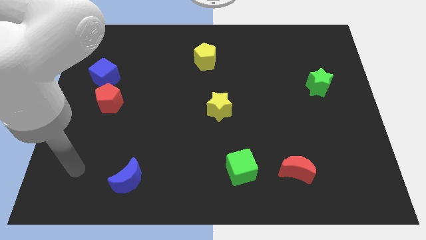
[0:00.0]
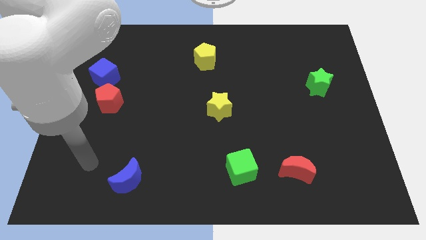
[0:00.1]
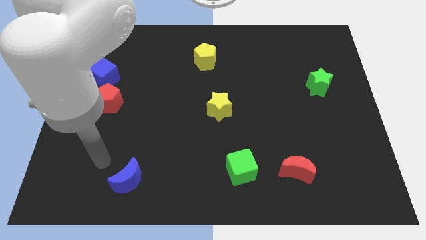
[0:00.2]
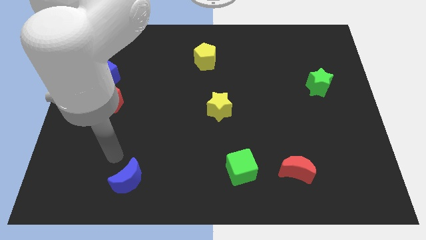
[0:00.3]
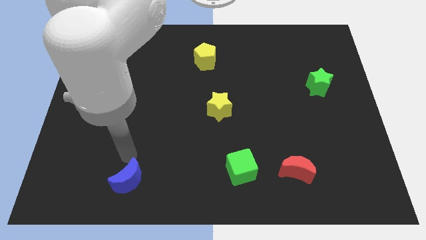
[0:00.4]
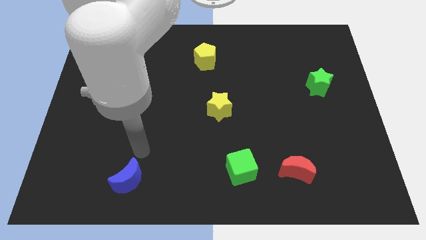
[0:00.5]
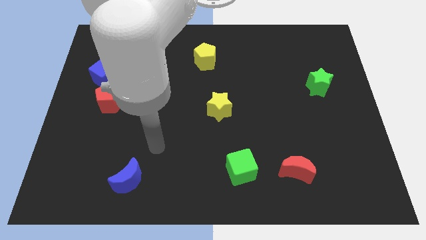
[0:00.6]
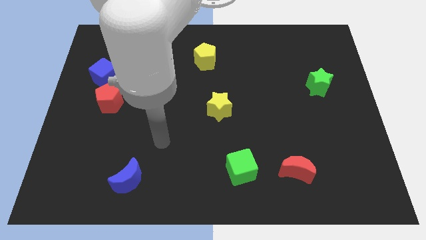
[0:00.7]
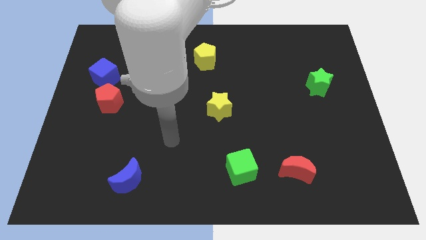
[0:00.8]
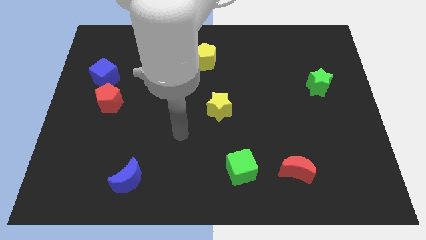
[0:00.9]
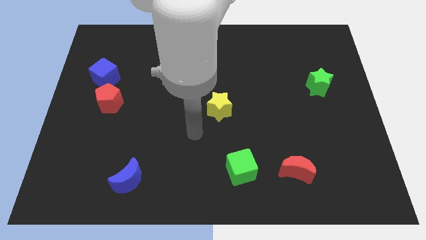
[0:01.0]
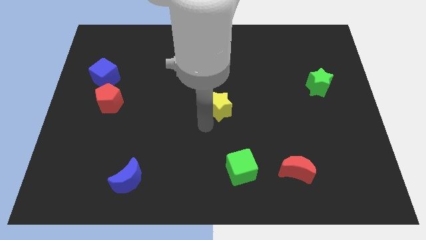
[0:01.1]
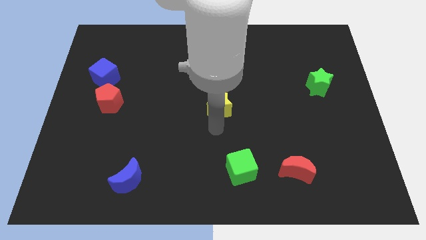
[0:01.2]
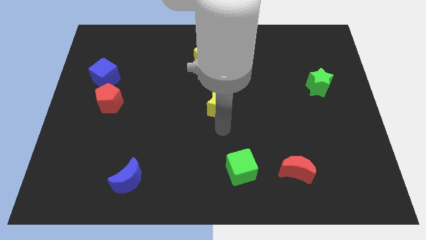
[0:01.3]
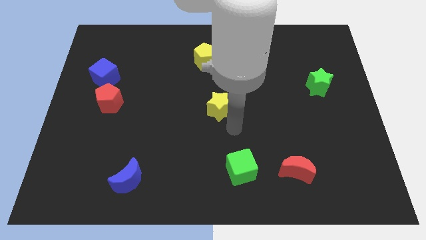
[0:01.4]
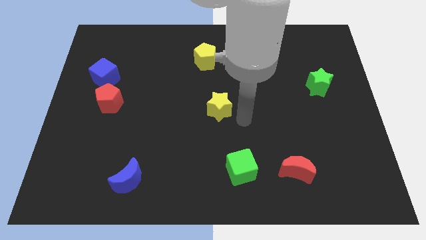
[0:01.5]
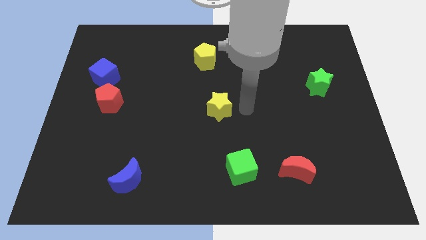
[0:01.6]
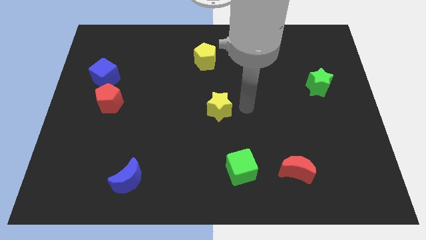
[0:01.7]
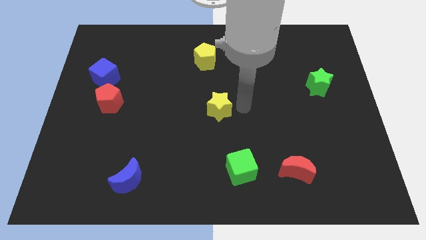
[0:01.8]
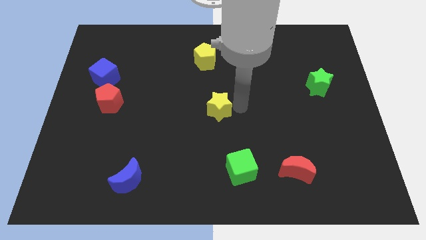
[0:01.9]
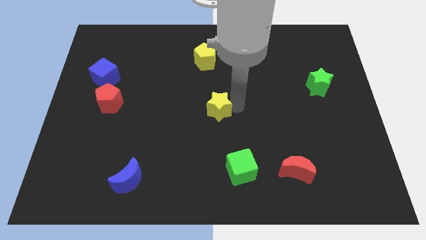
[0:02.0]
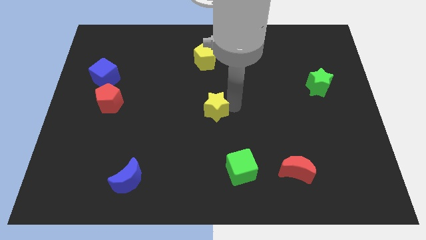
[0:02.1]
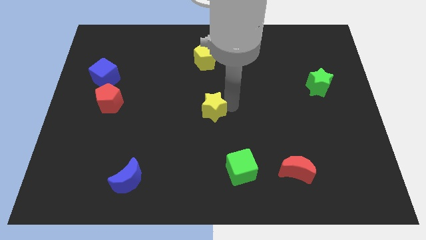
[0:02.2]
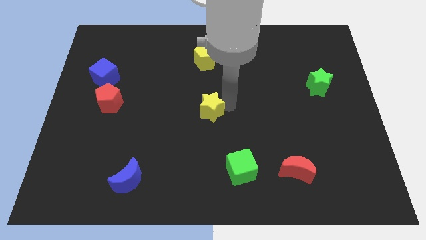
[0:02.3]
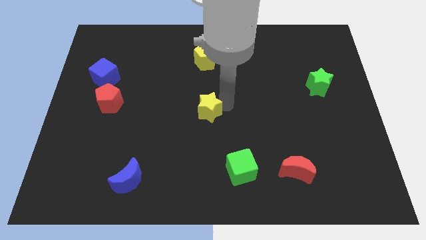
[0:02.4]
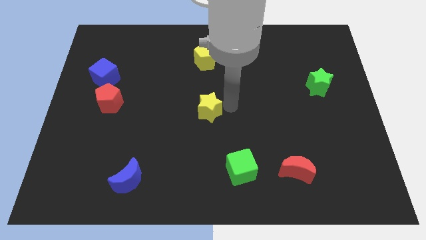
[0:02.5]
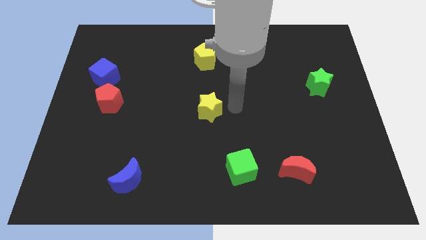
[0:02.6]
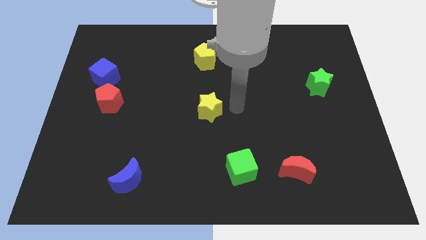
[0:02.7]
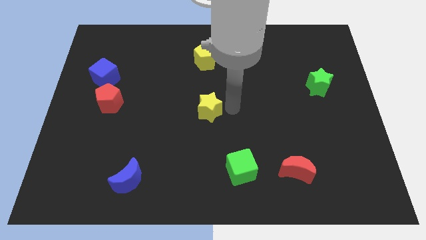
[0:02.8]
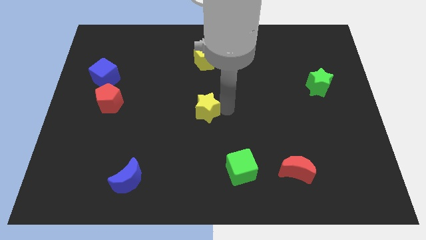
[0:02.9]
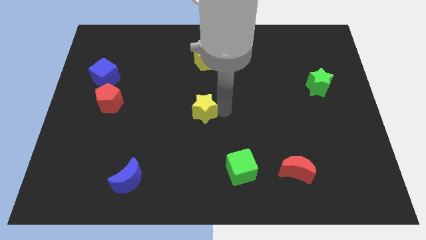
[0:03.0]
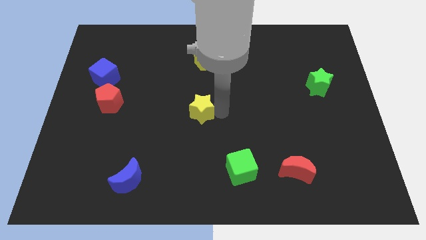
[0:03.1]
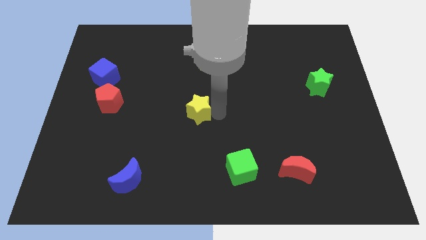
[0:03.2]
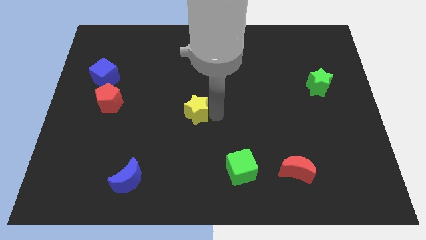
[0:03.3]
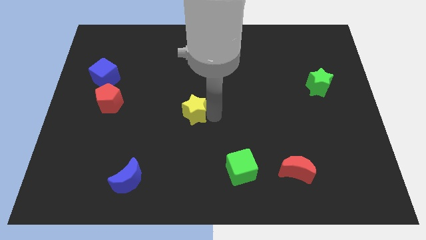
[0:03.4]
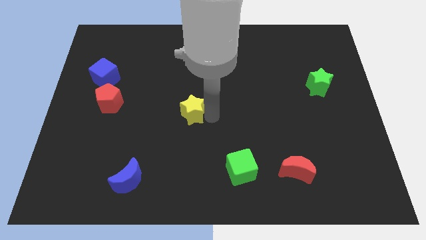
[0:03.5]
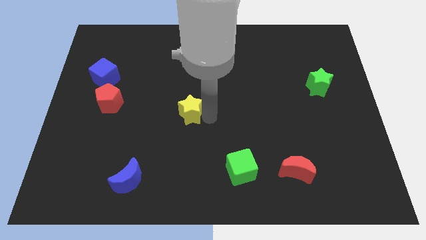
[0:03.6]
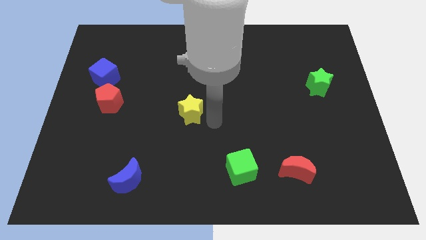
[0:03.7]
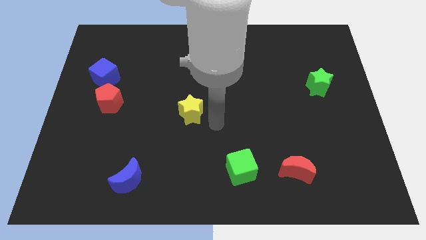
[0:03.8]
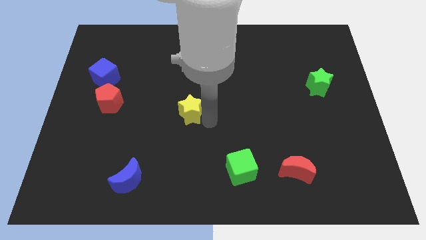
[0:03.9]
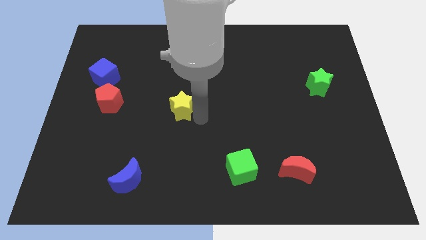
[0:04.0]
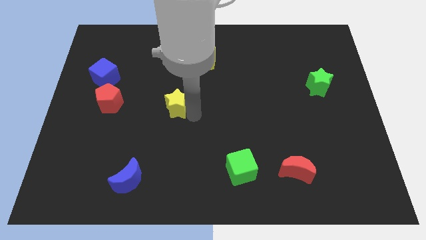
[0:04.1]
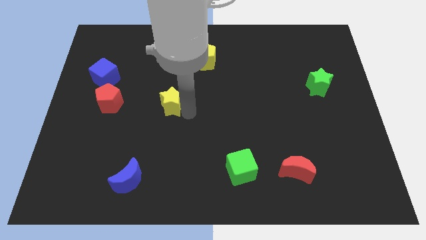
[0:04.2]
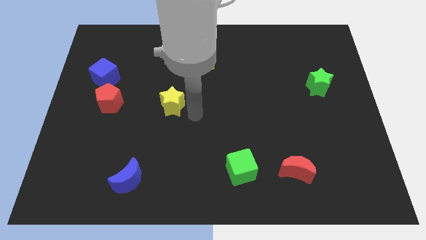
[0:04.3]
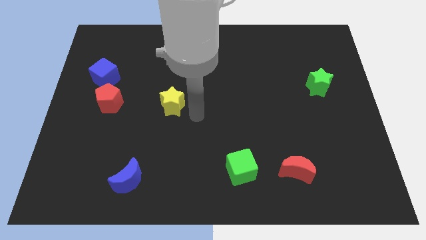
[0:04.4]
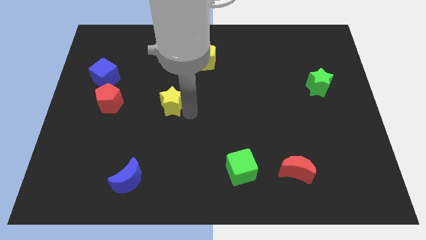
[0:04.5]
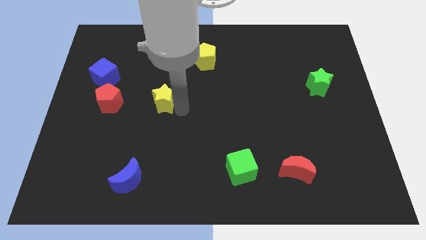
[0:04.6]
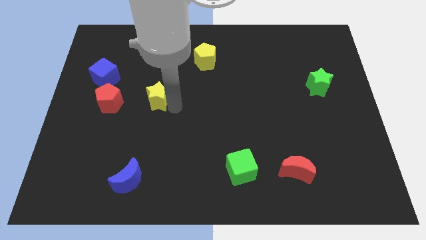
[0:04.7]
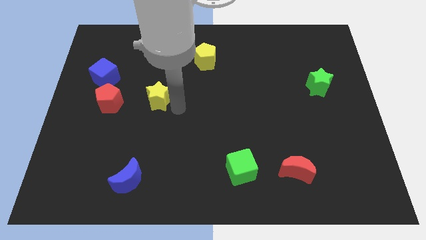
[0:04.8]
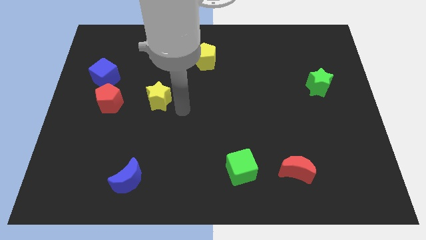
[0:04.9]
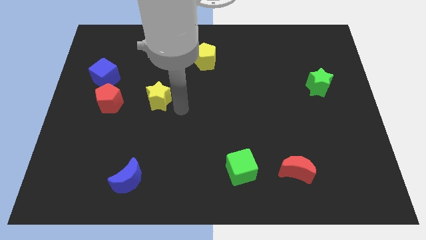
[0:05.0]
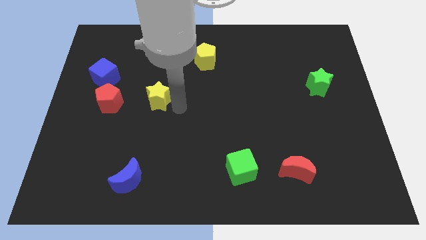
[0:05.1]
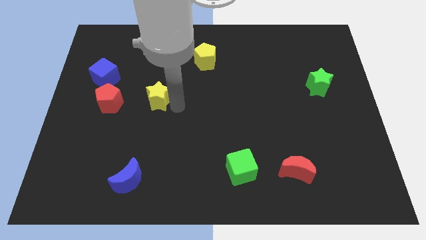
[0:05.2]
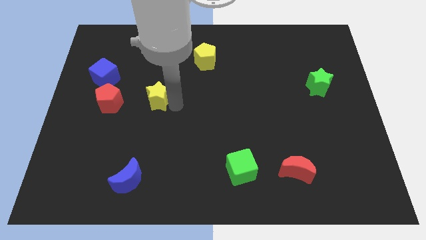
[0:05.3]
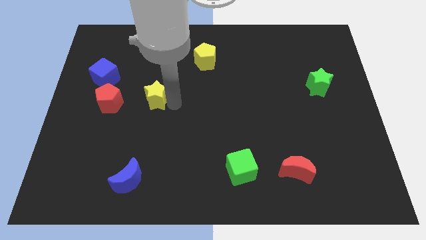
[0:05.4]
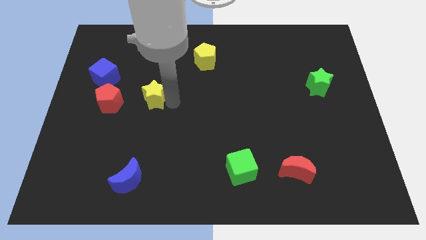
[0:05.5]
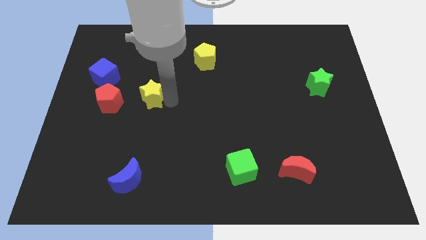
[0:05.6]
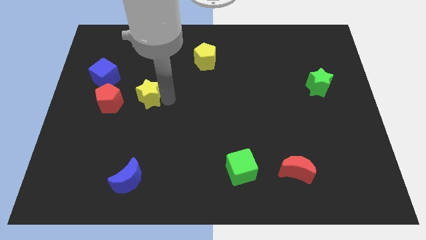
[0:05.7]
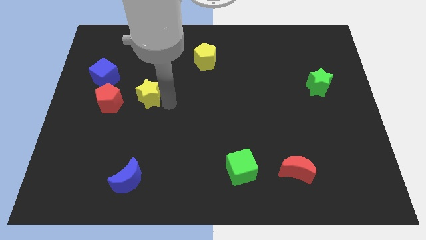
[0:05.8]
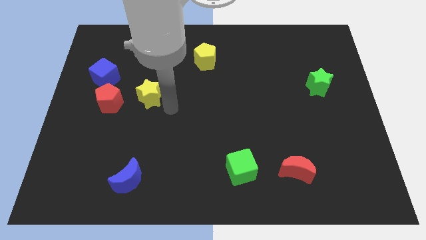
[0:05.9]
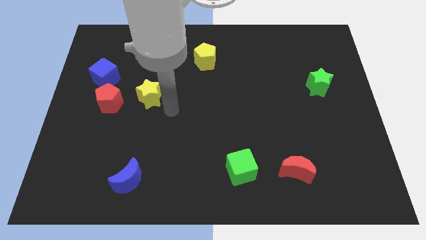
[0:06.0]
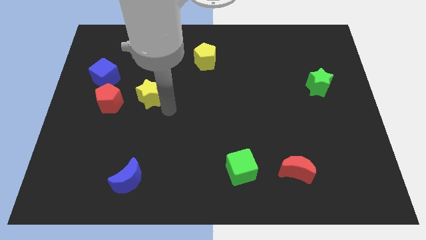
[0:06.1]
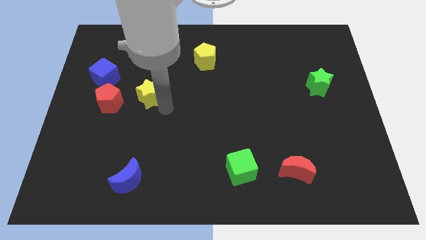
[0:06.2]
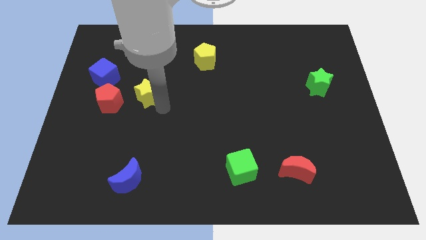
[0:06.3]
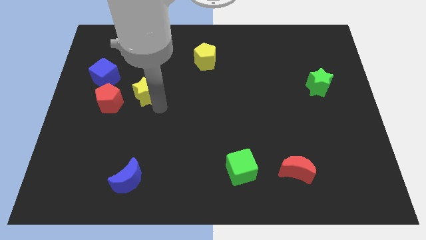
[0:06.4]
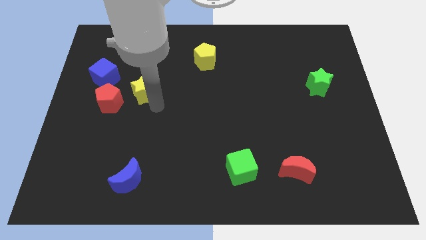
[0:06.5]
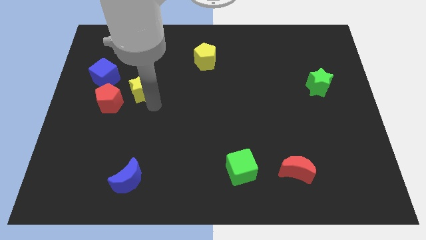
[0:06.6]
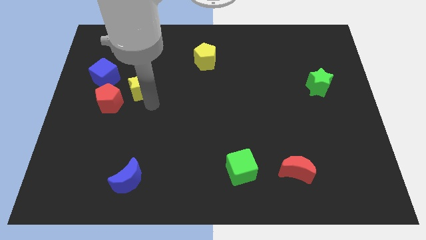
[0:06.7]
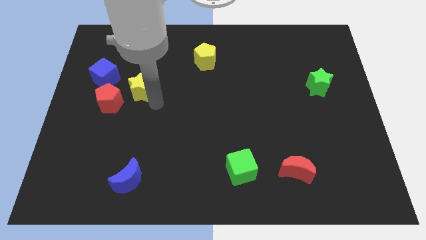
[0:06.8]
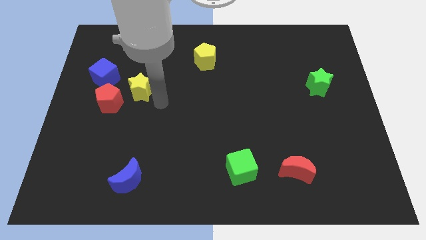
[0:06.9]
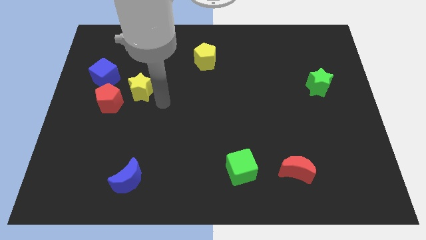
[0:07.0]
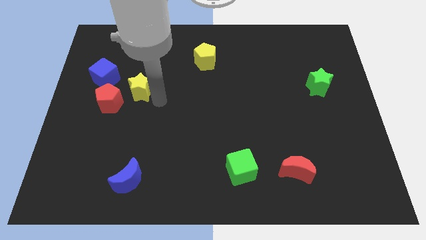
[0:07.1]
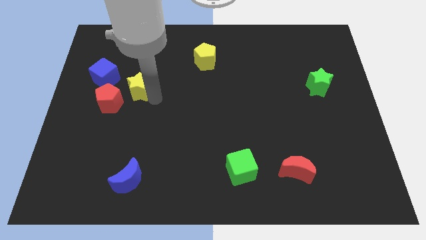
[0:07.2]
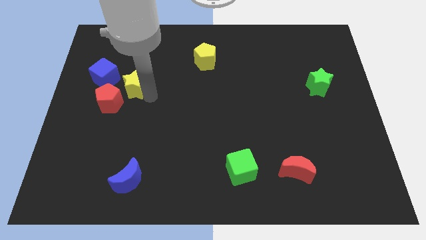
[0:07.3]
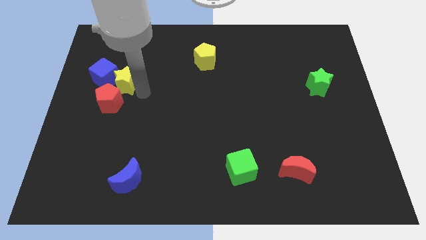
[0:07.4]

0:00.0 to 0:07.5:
move the yellow star to the blue cube

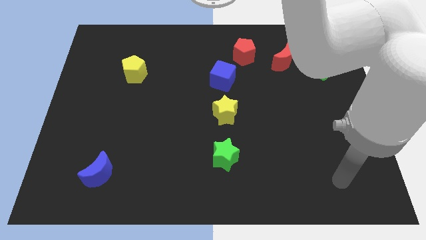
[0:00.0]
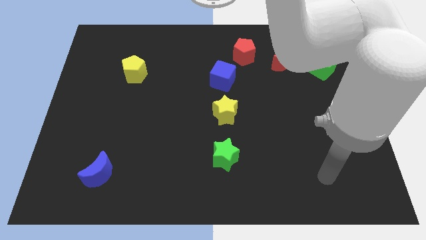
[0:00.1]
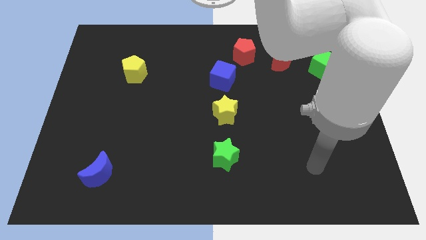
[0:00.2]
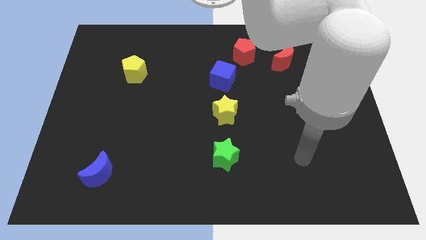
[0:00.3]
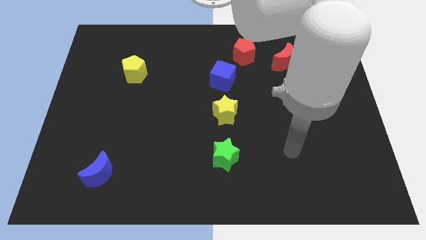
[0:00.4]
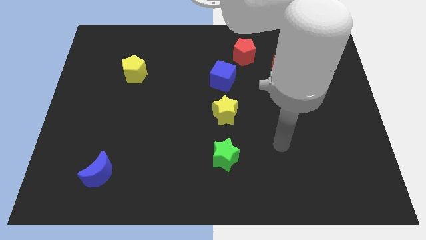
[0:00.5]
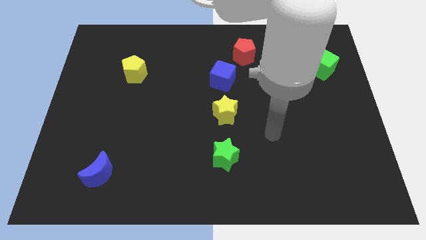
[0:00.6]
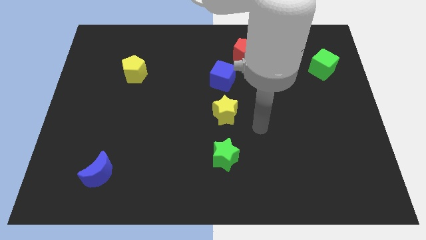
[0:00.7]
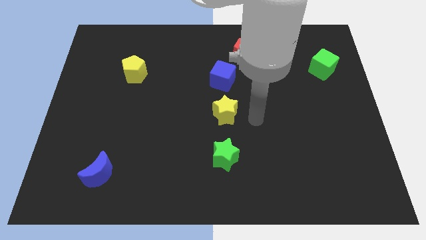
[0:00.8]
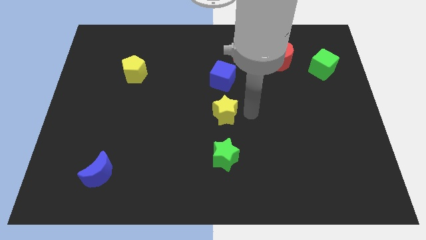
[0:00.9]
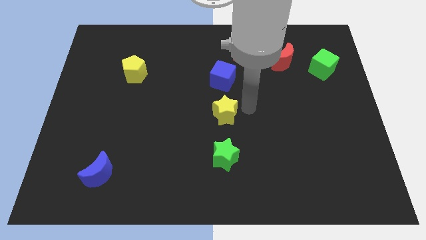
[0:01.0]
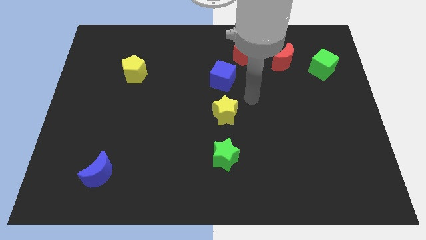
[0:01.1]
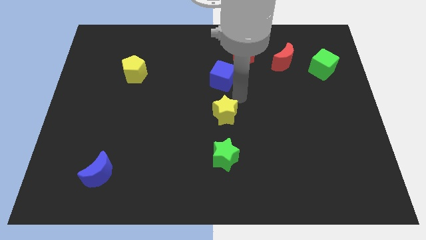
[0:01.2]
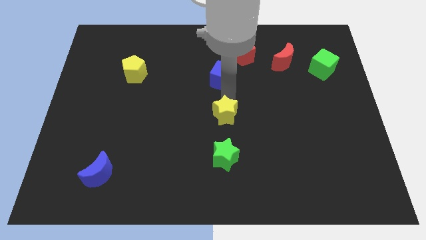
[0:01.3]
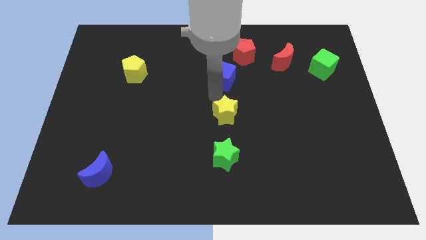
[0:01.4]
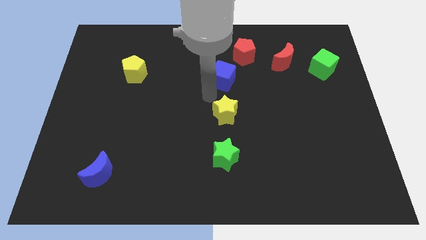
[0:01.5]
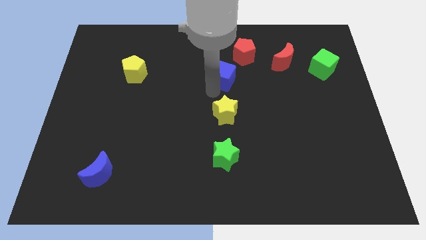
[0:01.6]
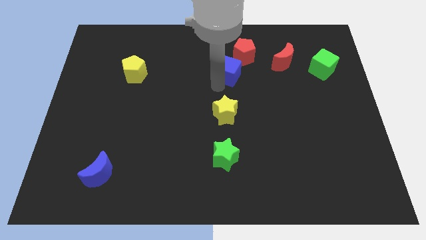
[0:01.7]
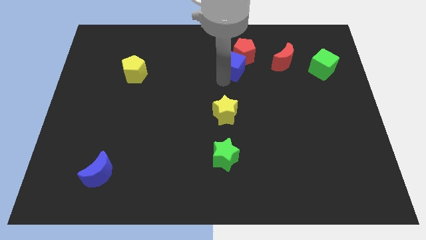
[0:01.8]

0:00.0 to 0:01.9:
slide the blue cube next to the red pentagon
